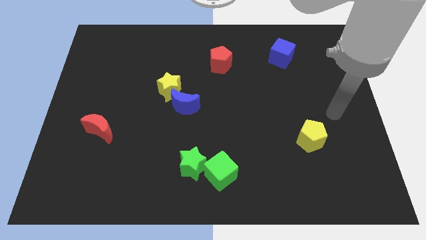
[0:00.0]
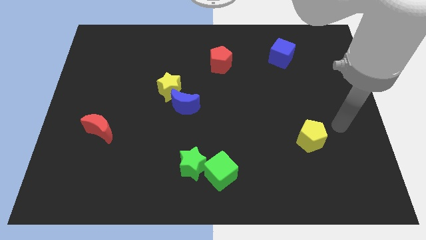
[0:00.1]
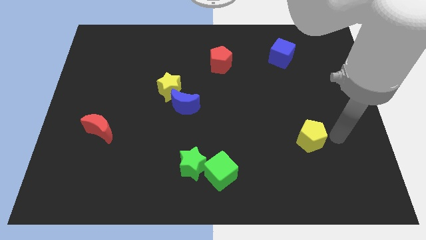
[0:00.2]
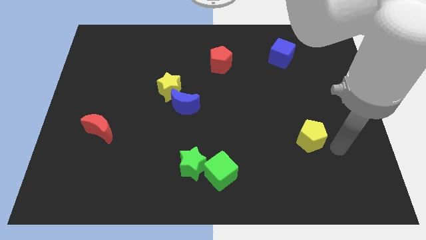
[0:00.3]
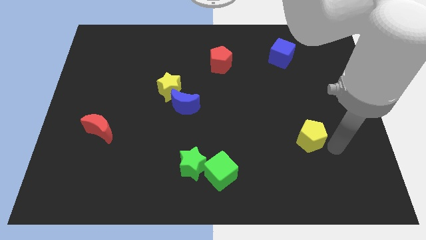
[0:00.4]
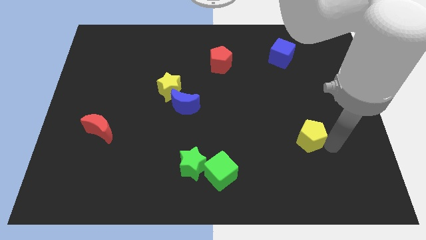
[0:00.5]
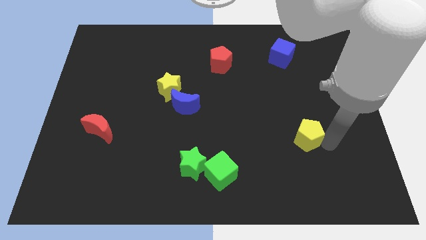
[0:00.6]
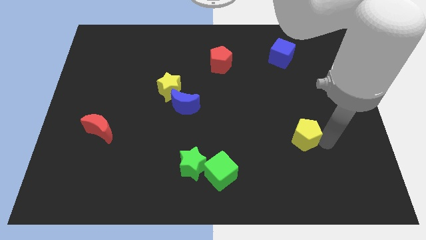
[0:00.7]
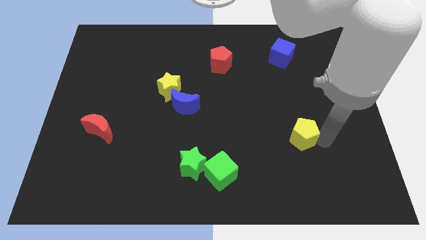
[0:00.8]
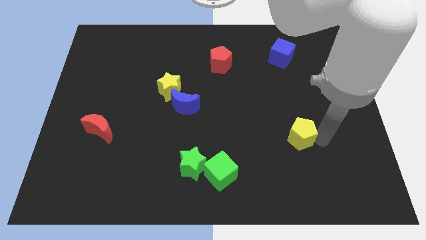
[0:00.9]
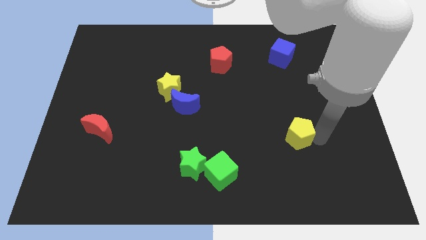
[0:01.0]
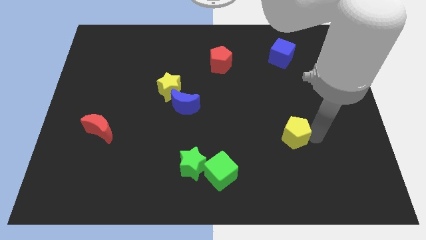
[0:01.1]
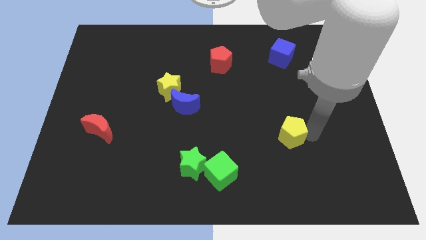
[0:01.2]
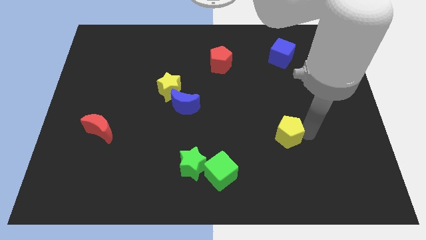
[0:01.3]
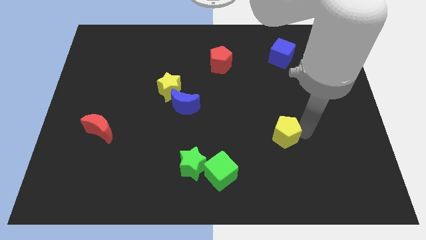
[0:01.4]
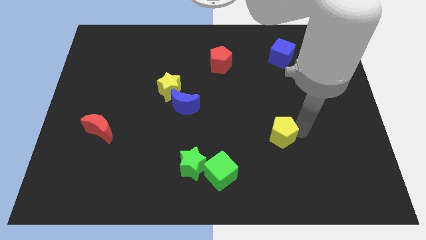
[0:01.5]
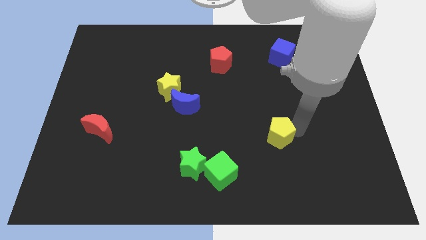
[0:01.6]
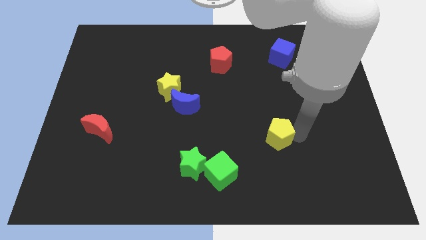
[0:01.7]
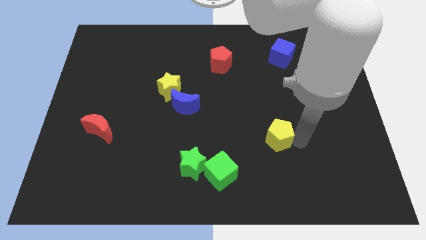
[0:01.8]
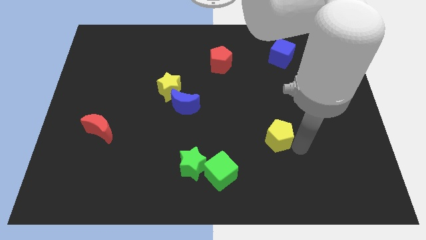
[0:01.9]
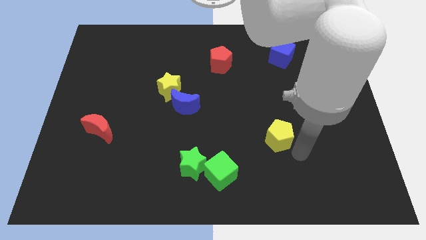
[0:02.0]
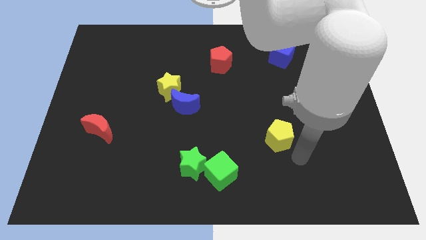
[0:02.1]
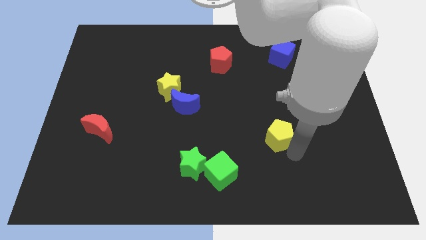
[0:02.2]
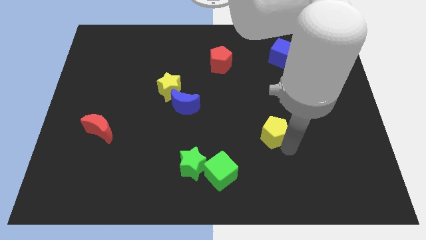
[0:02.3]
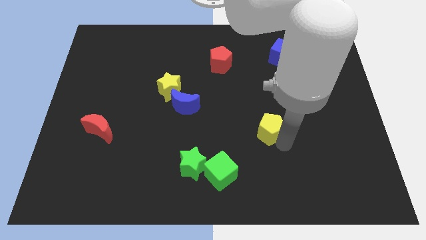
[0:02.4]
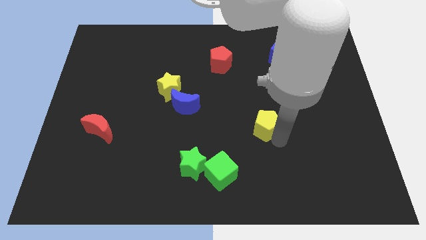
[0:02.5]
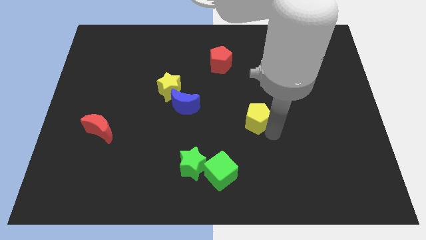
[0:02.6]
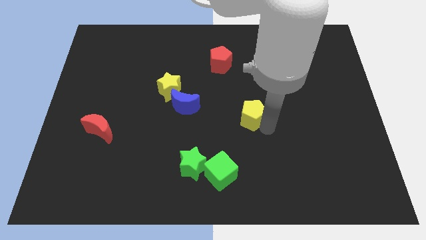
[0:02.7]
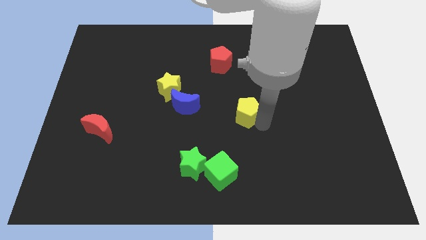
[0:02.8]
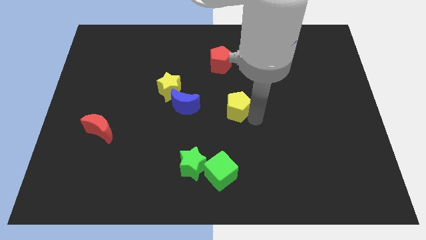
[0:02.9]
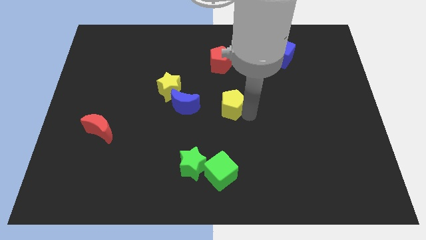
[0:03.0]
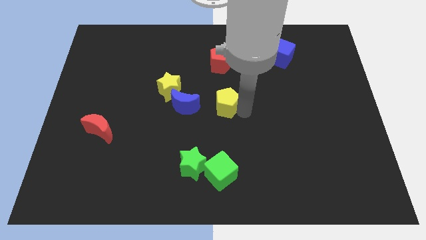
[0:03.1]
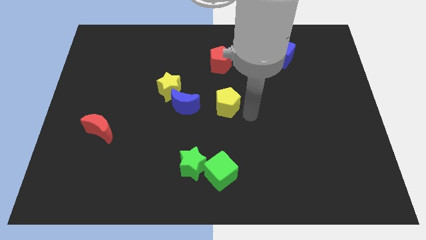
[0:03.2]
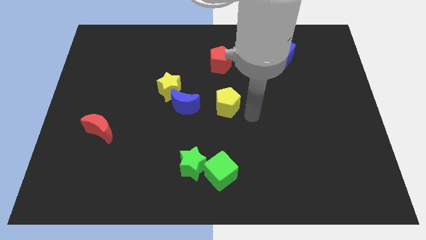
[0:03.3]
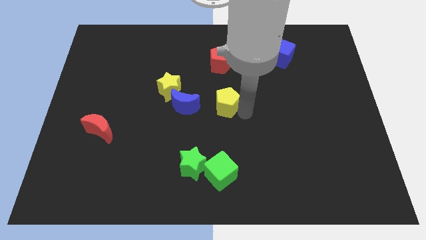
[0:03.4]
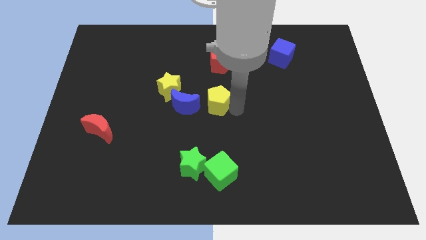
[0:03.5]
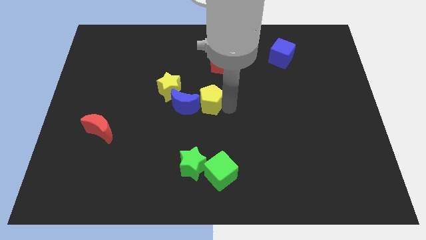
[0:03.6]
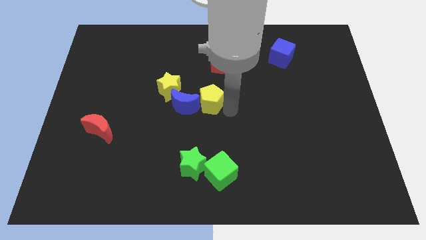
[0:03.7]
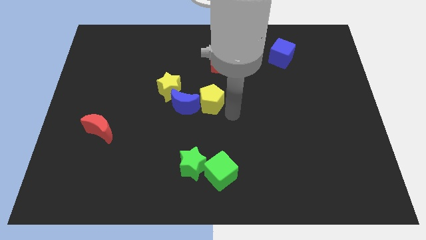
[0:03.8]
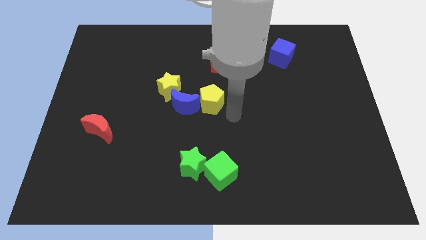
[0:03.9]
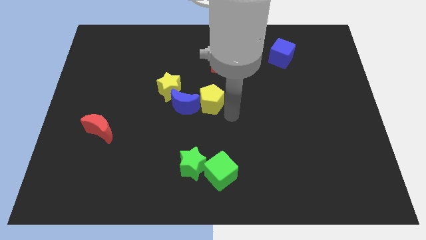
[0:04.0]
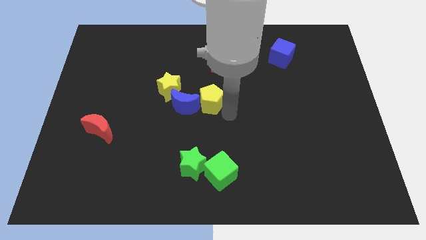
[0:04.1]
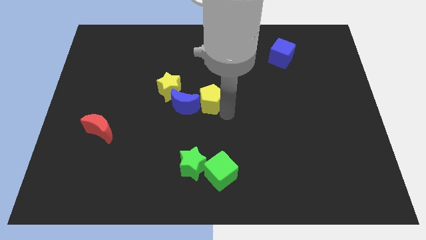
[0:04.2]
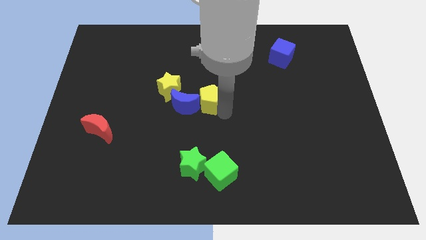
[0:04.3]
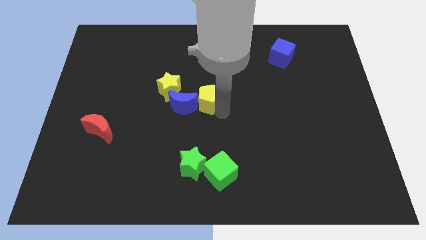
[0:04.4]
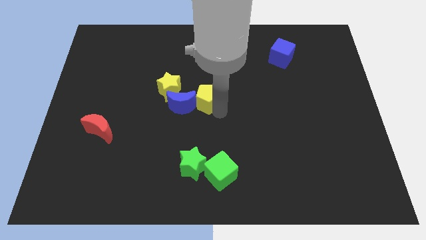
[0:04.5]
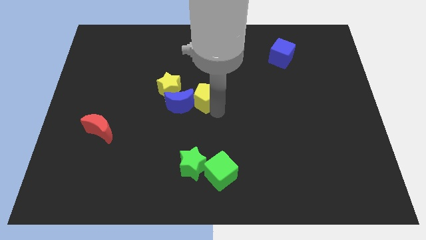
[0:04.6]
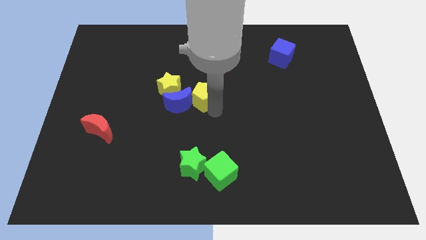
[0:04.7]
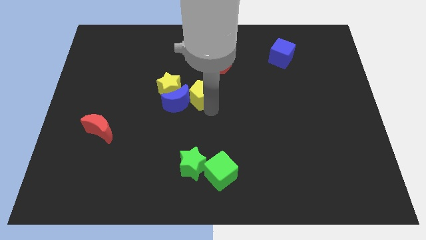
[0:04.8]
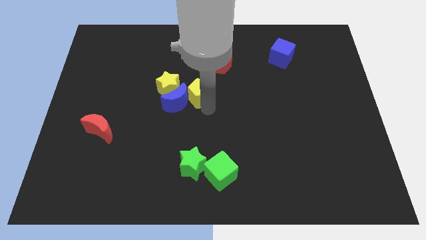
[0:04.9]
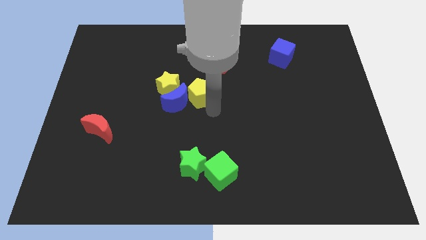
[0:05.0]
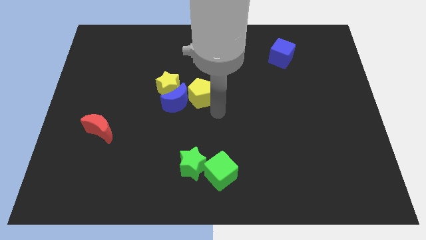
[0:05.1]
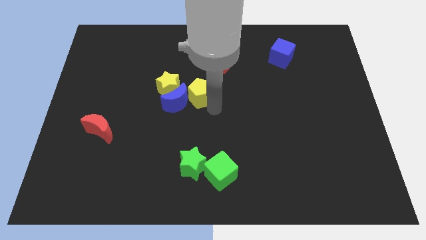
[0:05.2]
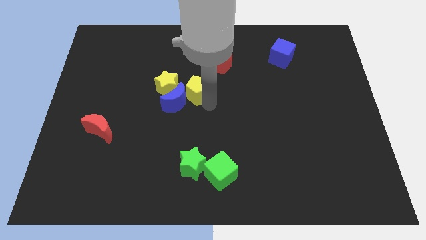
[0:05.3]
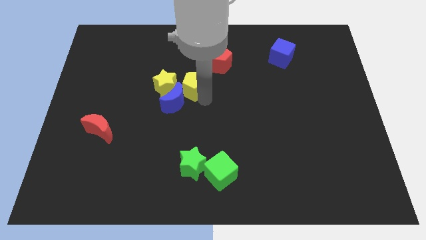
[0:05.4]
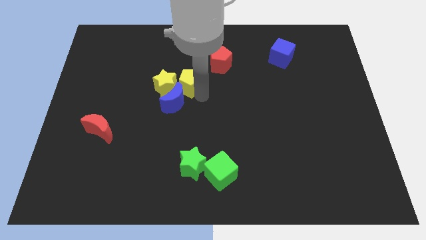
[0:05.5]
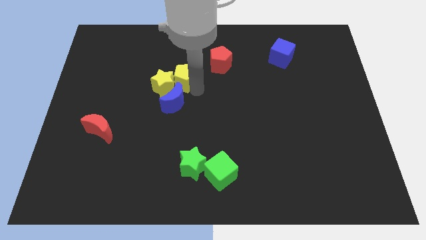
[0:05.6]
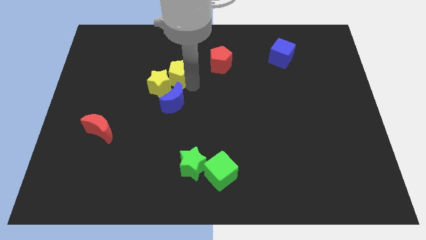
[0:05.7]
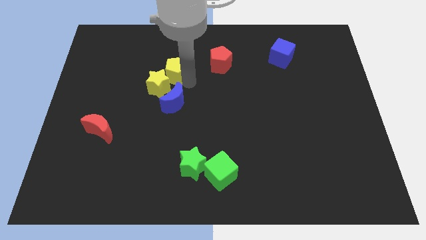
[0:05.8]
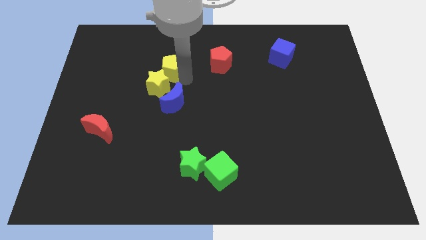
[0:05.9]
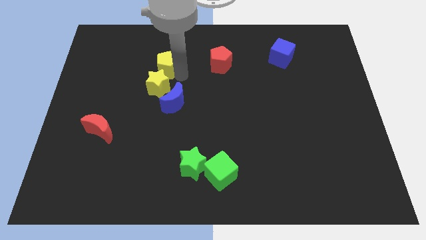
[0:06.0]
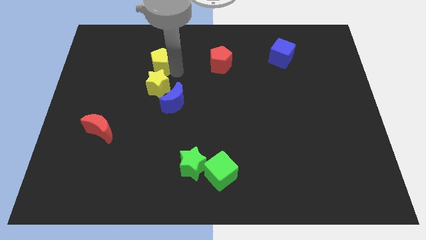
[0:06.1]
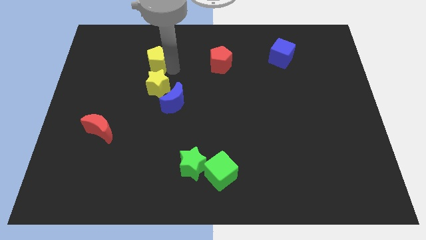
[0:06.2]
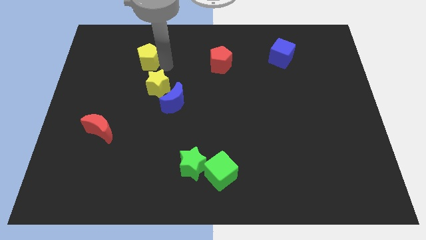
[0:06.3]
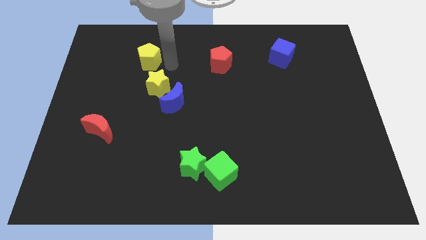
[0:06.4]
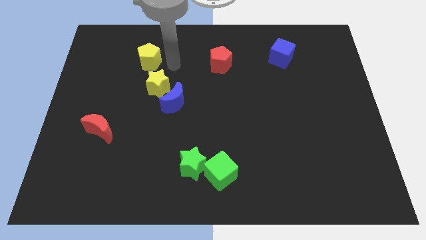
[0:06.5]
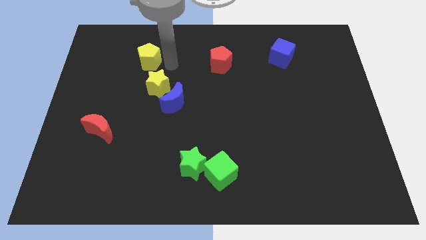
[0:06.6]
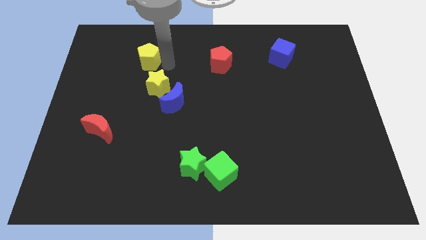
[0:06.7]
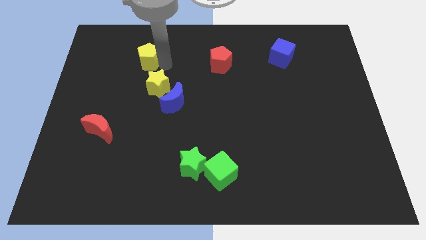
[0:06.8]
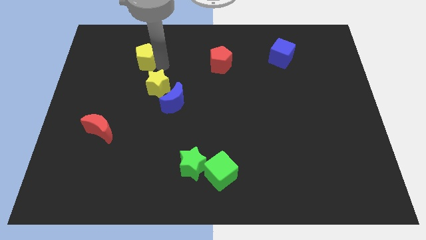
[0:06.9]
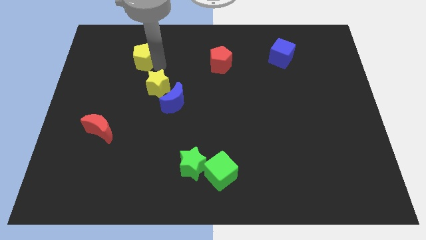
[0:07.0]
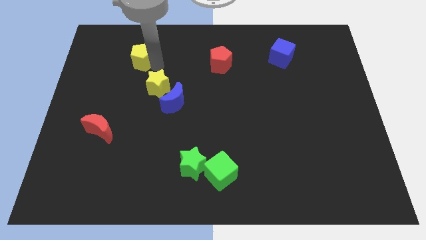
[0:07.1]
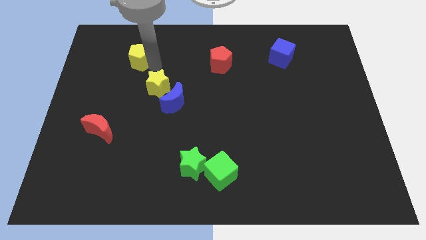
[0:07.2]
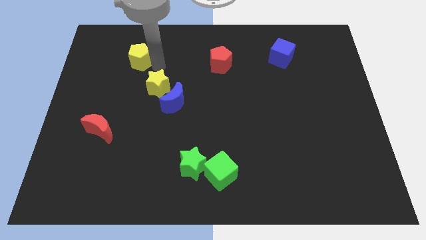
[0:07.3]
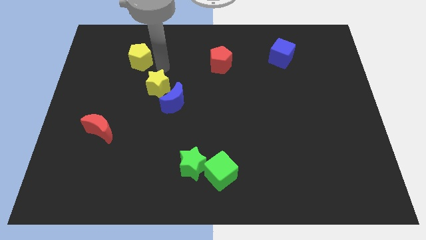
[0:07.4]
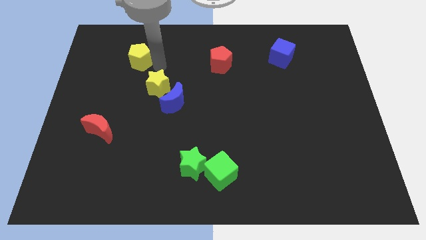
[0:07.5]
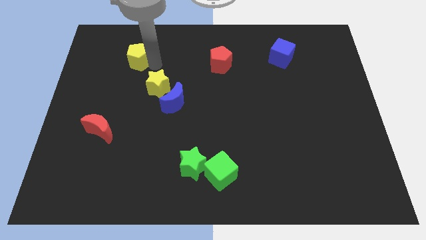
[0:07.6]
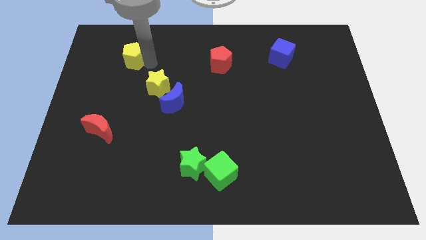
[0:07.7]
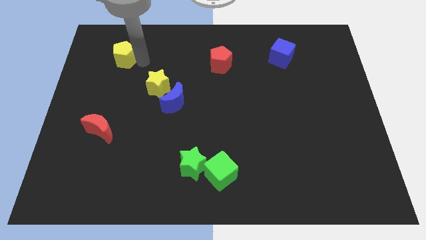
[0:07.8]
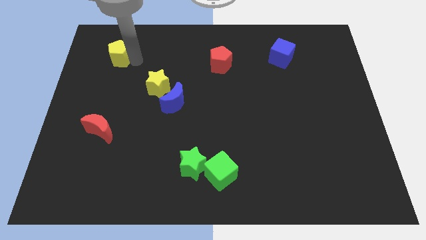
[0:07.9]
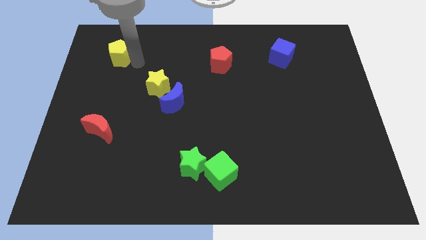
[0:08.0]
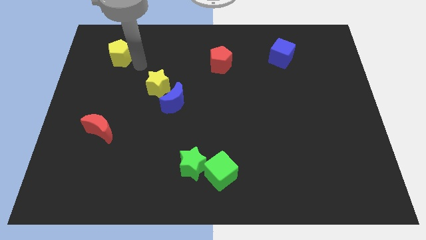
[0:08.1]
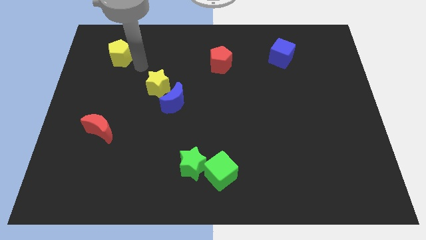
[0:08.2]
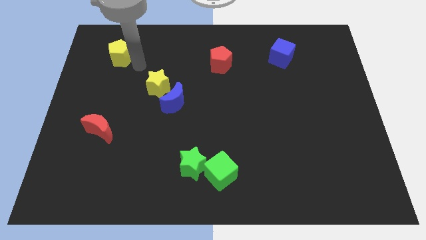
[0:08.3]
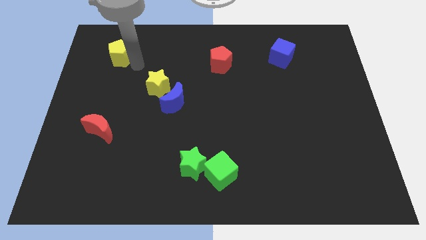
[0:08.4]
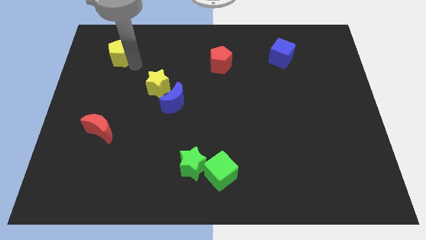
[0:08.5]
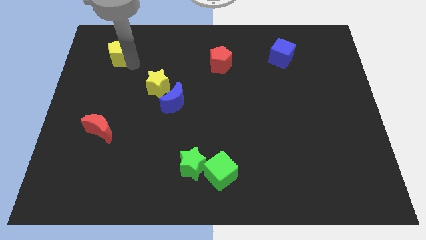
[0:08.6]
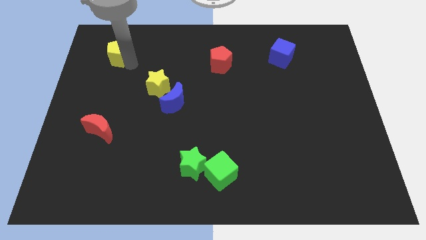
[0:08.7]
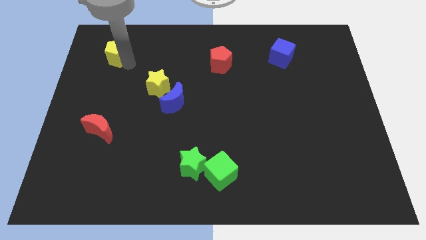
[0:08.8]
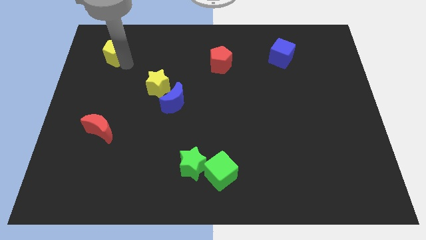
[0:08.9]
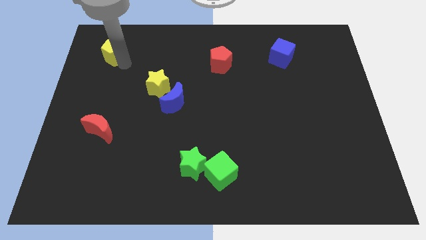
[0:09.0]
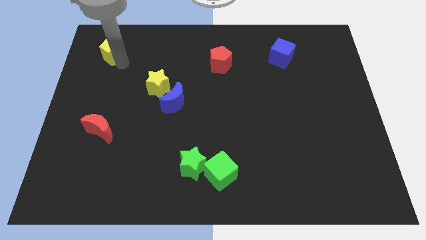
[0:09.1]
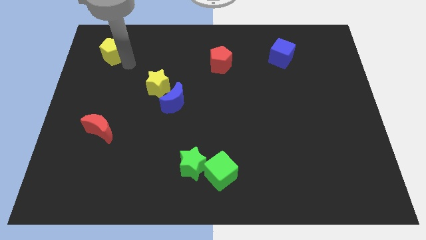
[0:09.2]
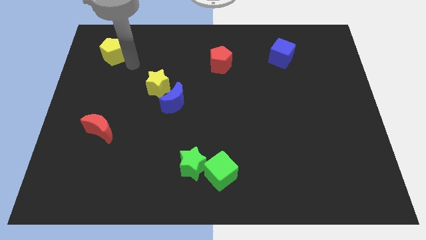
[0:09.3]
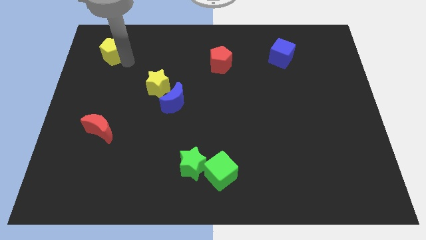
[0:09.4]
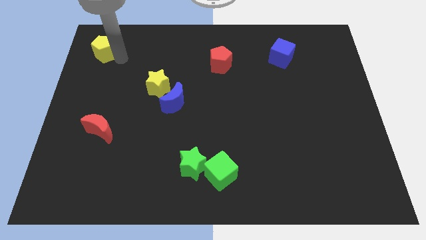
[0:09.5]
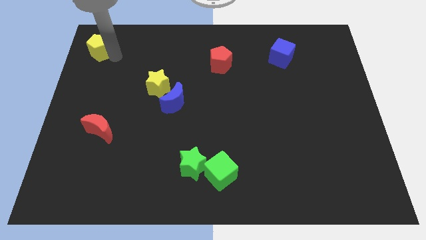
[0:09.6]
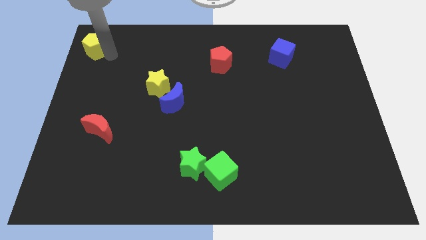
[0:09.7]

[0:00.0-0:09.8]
put the yellow pentagon to the upper left corner
